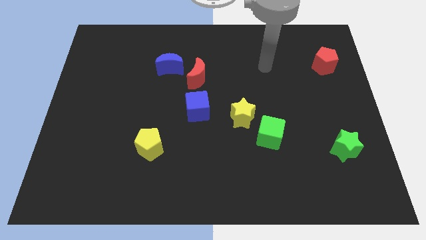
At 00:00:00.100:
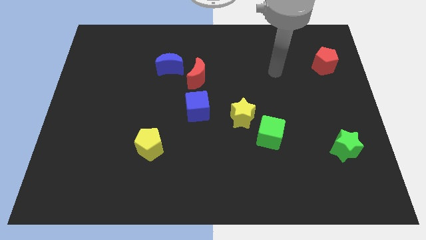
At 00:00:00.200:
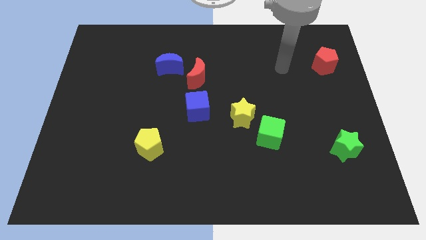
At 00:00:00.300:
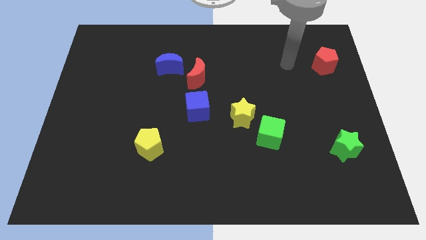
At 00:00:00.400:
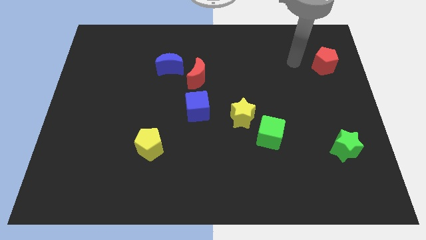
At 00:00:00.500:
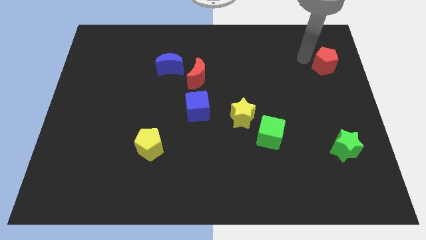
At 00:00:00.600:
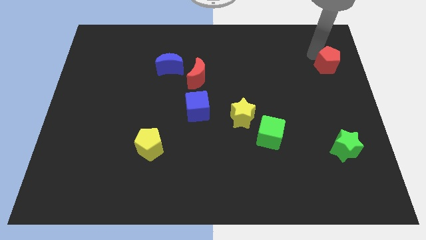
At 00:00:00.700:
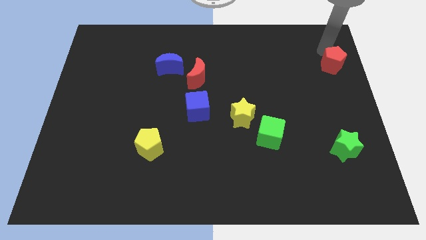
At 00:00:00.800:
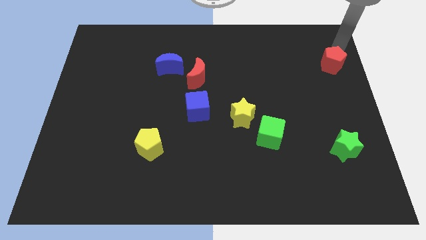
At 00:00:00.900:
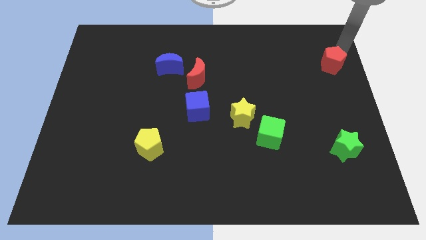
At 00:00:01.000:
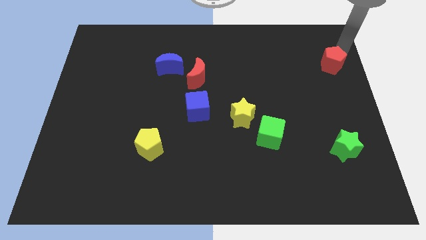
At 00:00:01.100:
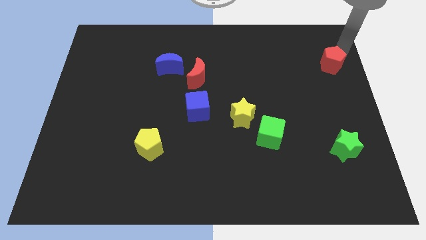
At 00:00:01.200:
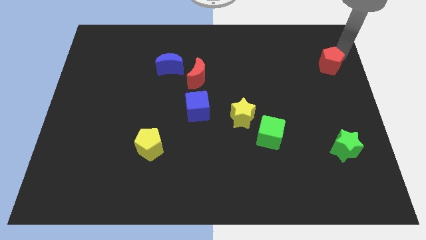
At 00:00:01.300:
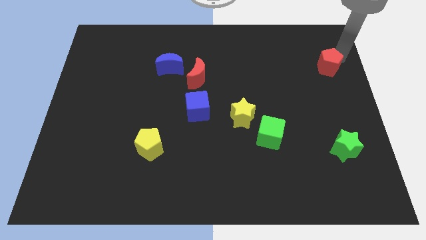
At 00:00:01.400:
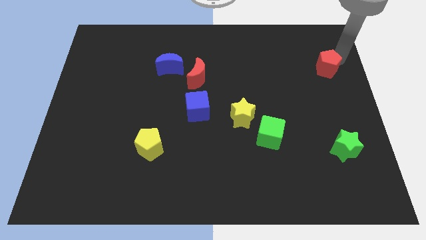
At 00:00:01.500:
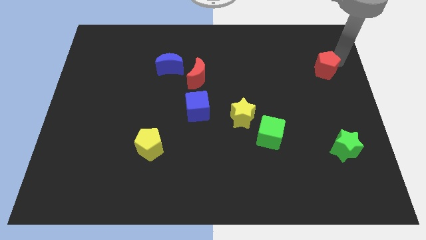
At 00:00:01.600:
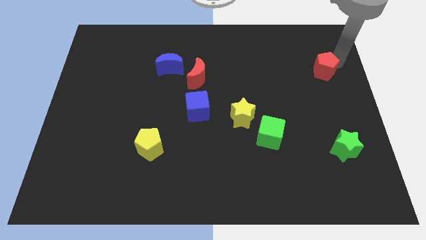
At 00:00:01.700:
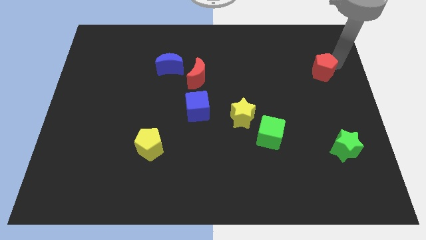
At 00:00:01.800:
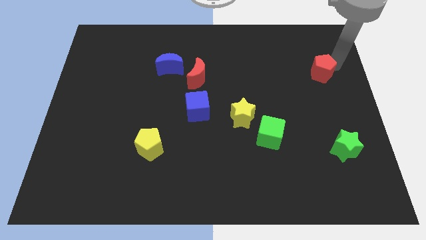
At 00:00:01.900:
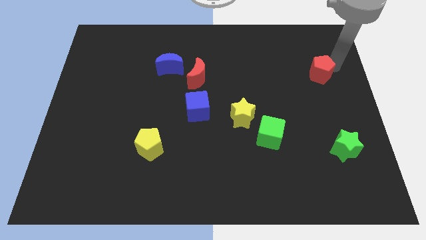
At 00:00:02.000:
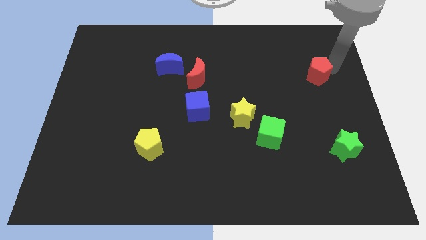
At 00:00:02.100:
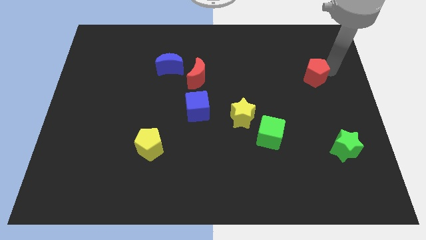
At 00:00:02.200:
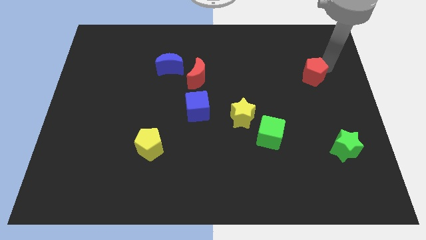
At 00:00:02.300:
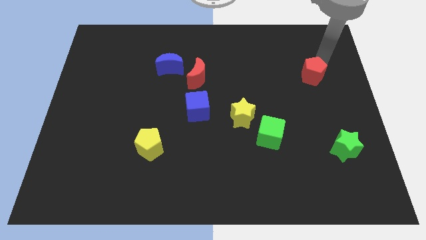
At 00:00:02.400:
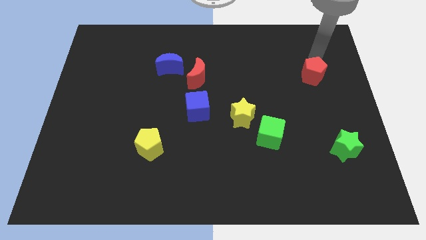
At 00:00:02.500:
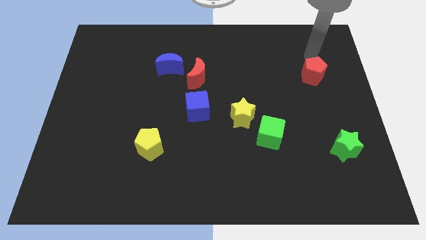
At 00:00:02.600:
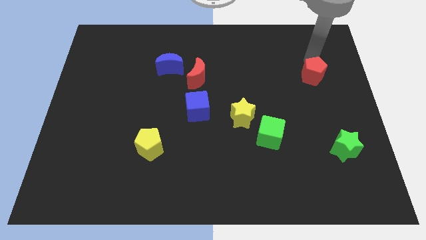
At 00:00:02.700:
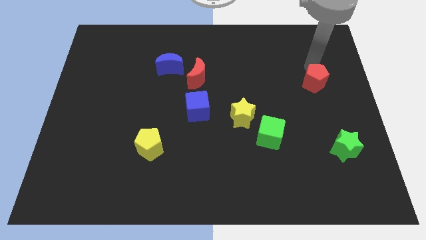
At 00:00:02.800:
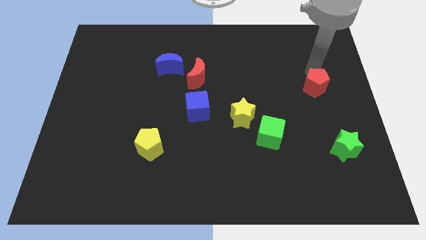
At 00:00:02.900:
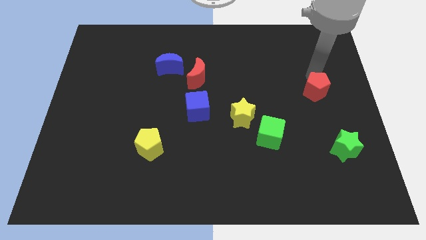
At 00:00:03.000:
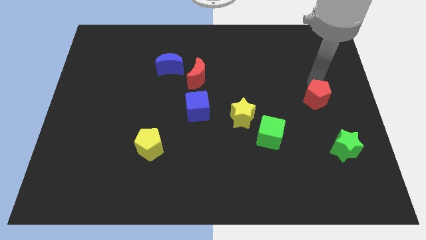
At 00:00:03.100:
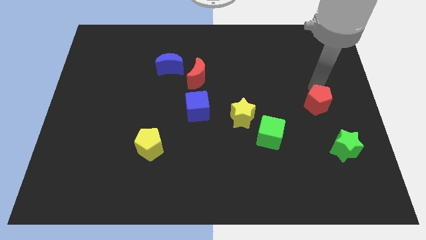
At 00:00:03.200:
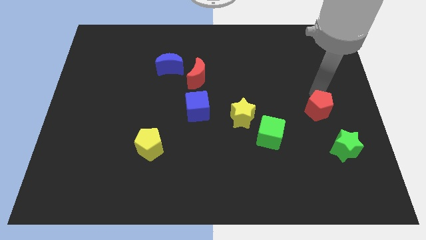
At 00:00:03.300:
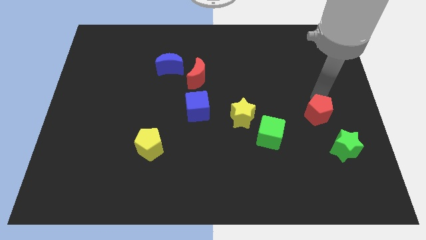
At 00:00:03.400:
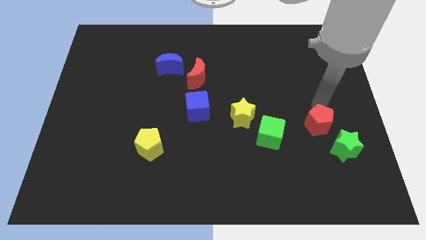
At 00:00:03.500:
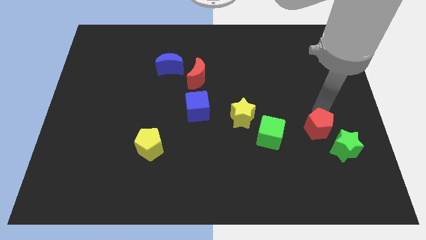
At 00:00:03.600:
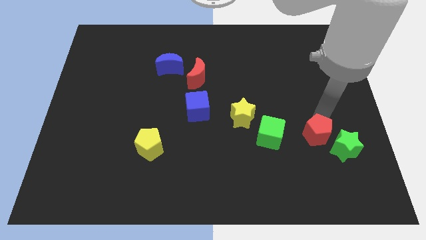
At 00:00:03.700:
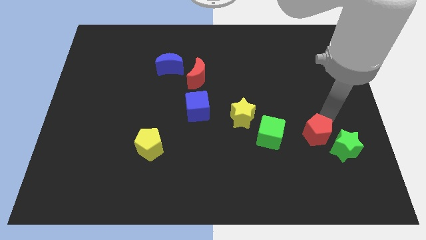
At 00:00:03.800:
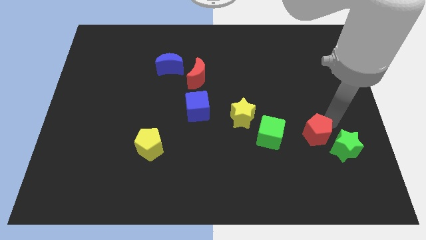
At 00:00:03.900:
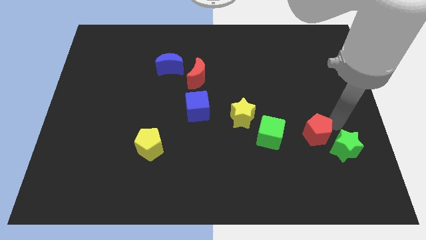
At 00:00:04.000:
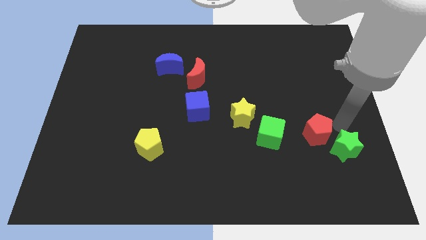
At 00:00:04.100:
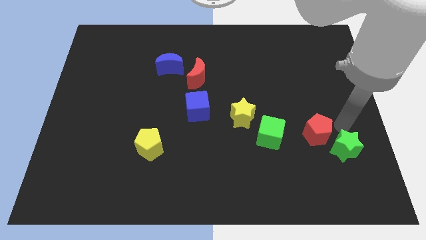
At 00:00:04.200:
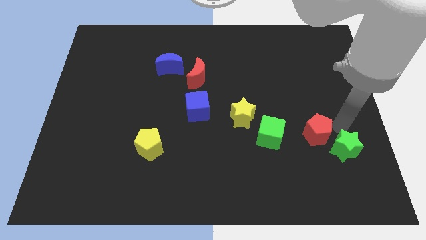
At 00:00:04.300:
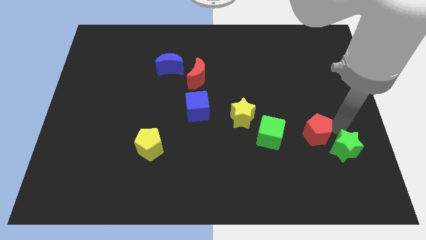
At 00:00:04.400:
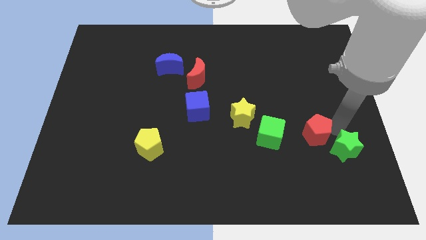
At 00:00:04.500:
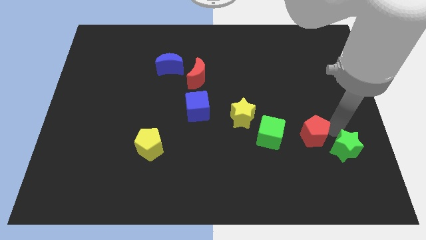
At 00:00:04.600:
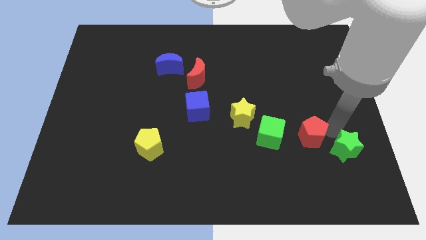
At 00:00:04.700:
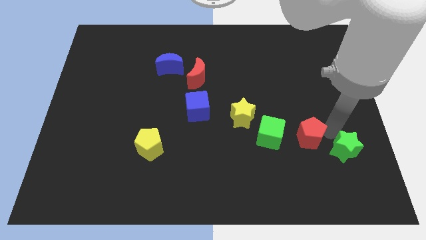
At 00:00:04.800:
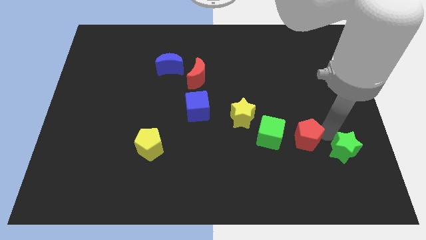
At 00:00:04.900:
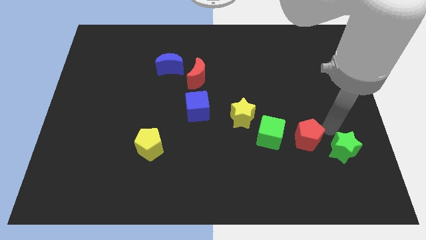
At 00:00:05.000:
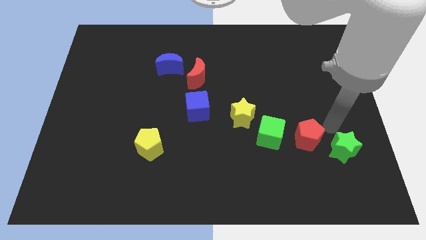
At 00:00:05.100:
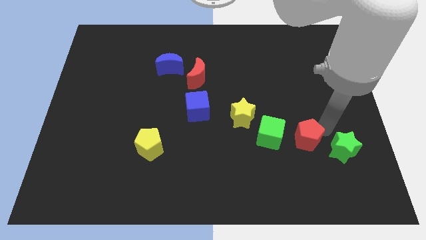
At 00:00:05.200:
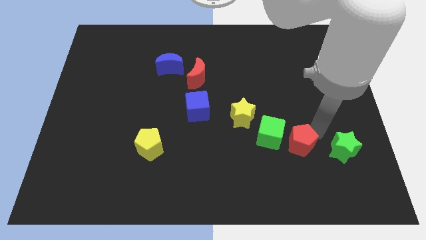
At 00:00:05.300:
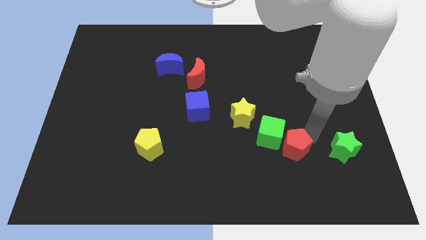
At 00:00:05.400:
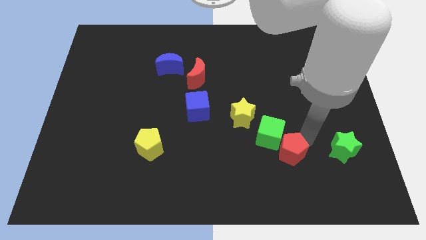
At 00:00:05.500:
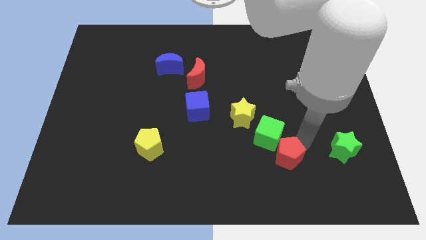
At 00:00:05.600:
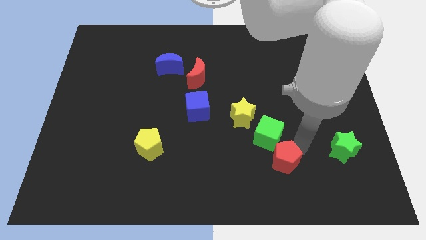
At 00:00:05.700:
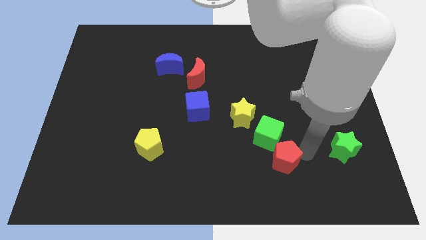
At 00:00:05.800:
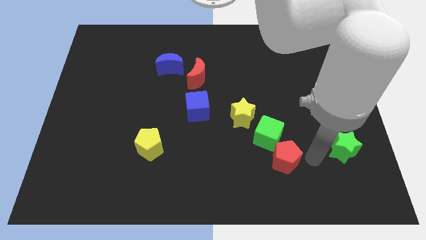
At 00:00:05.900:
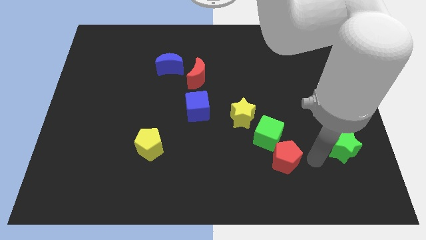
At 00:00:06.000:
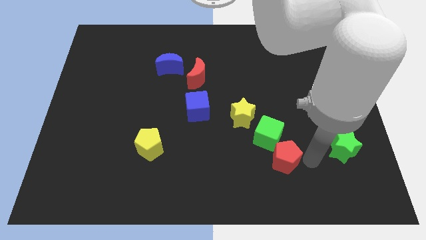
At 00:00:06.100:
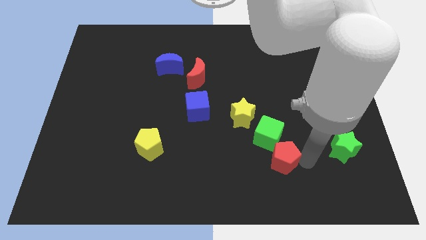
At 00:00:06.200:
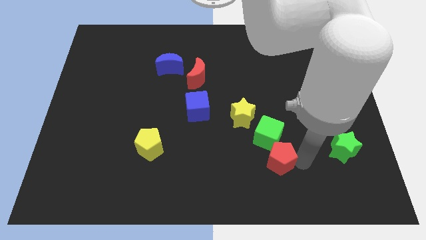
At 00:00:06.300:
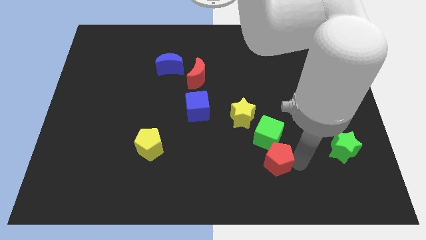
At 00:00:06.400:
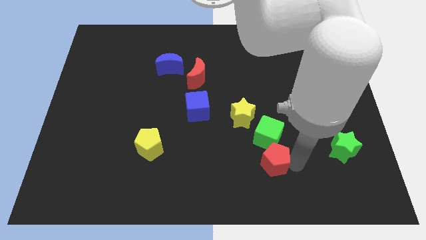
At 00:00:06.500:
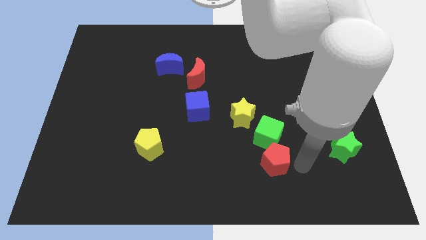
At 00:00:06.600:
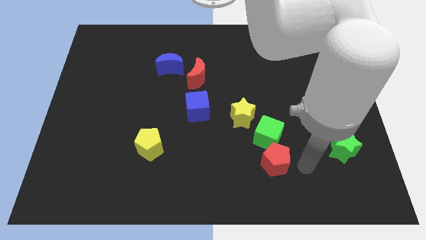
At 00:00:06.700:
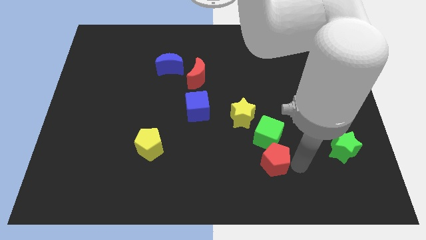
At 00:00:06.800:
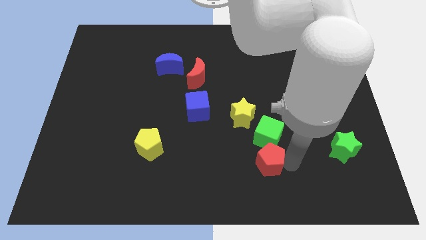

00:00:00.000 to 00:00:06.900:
put the red pentagon to the bottom left side of the green cube
